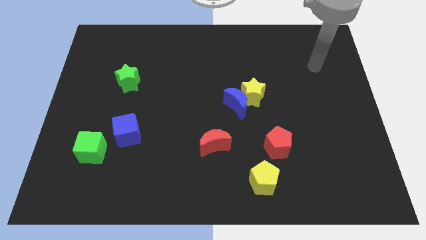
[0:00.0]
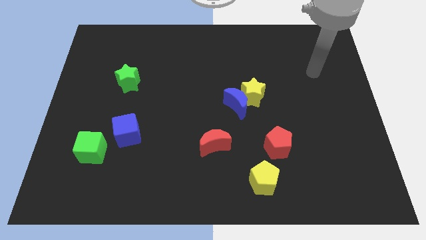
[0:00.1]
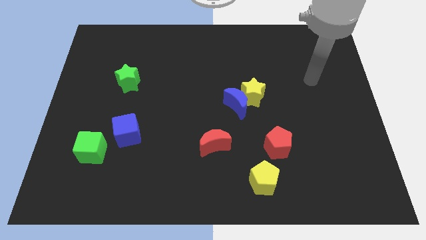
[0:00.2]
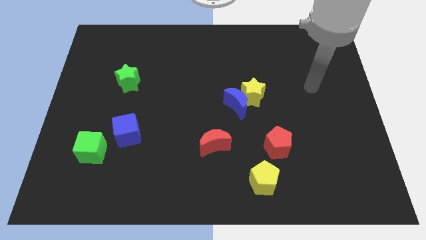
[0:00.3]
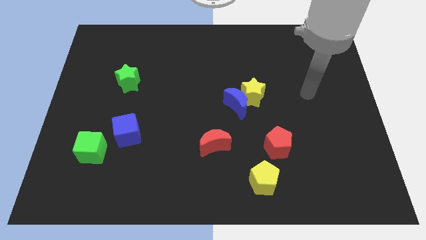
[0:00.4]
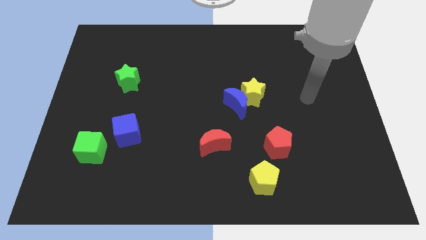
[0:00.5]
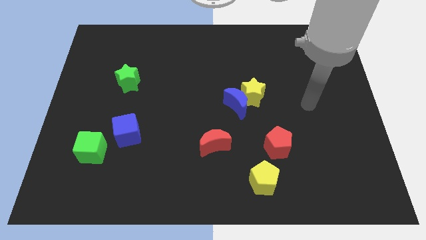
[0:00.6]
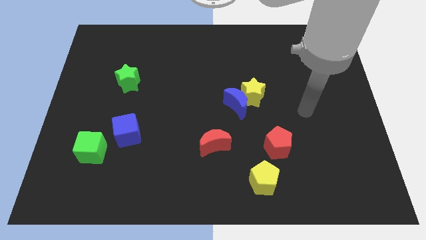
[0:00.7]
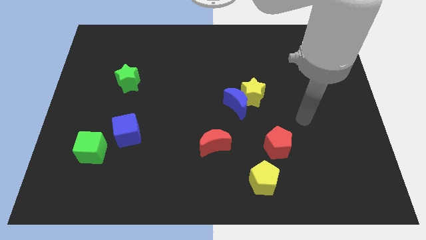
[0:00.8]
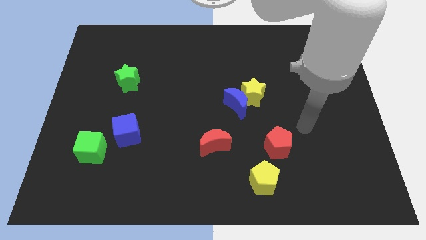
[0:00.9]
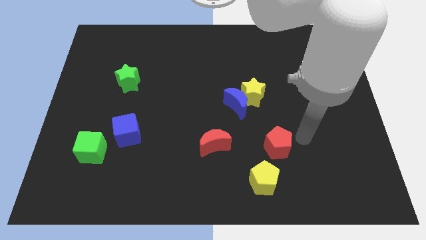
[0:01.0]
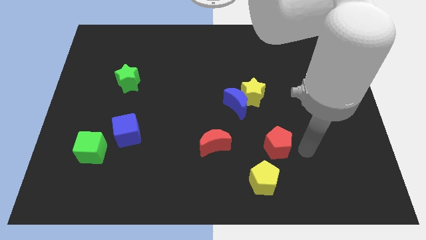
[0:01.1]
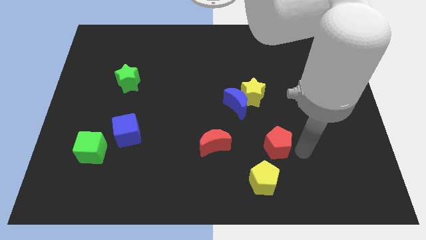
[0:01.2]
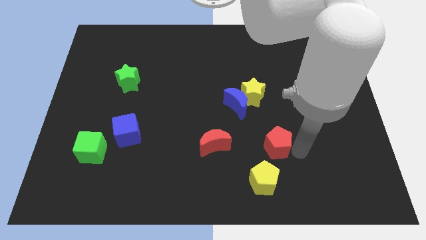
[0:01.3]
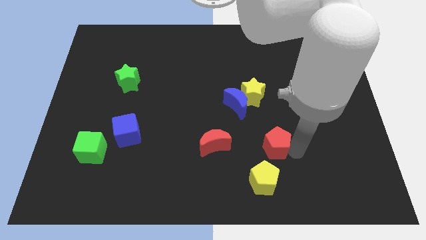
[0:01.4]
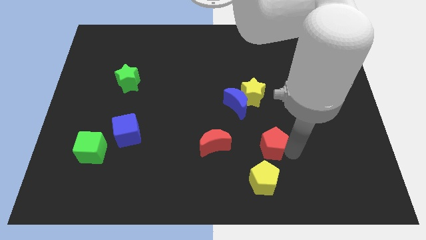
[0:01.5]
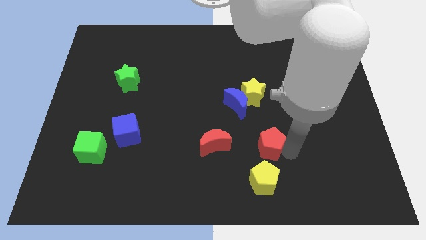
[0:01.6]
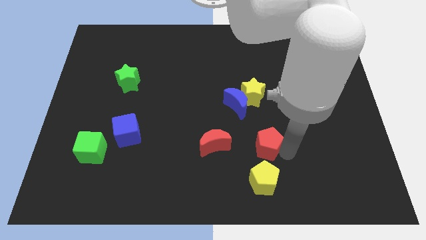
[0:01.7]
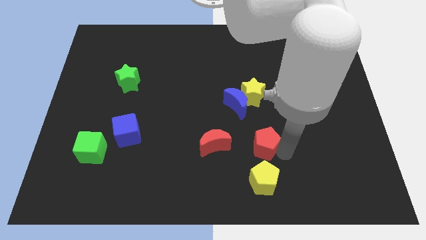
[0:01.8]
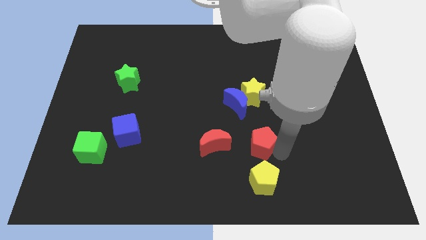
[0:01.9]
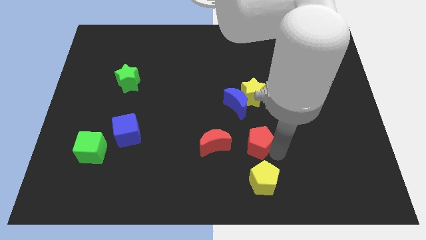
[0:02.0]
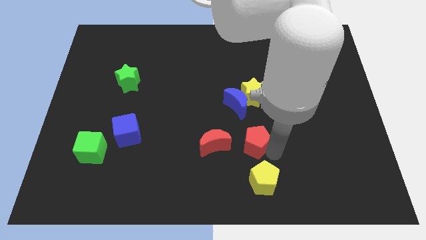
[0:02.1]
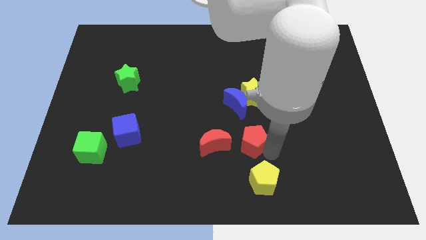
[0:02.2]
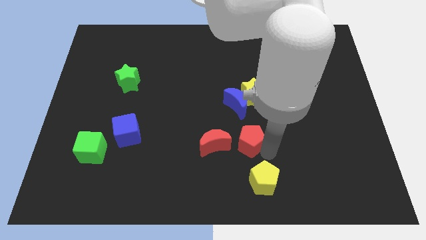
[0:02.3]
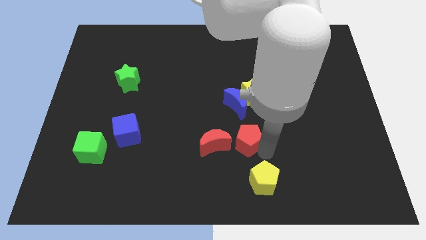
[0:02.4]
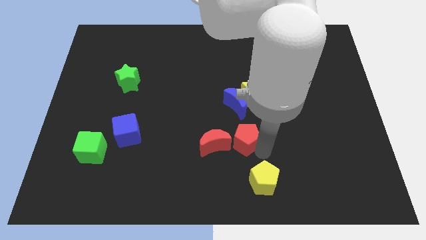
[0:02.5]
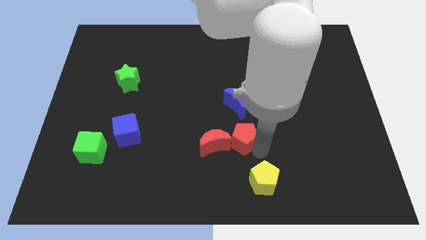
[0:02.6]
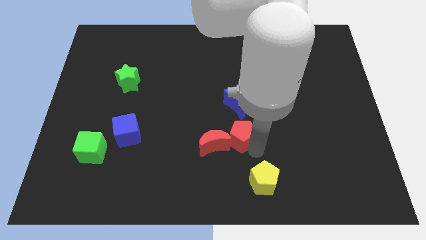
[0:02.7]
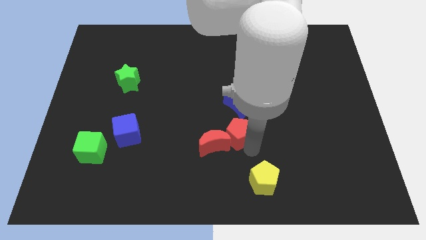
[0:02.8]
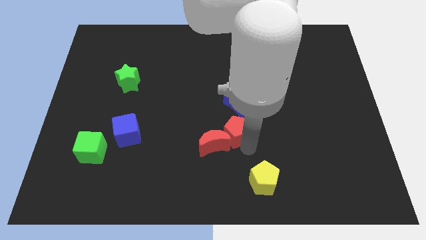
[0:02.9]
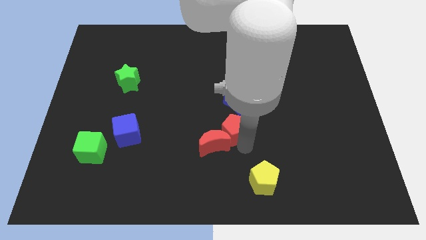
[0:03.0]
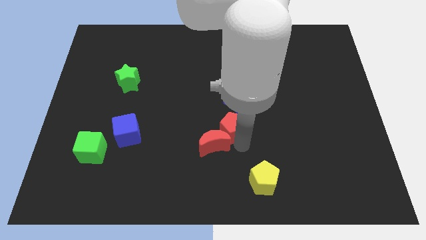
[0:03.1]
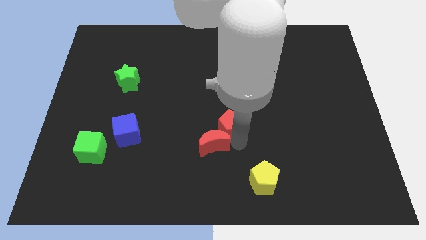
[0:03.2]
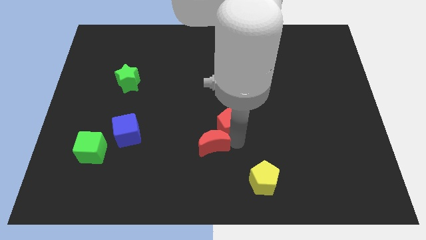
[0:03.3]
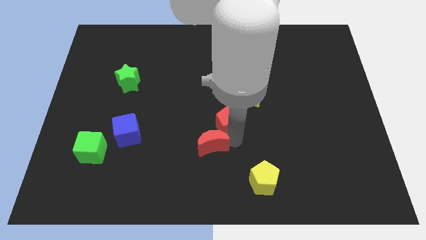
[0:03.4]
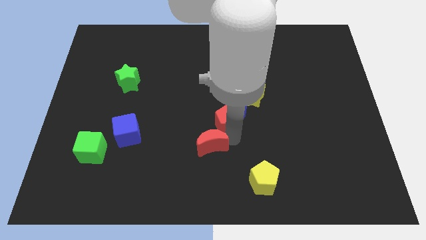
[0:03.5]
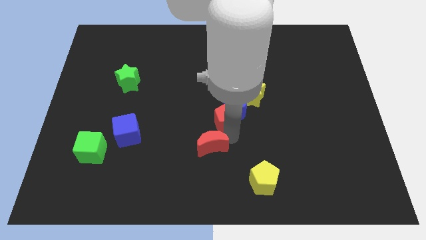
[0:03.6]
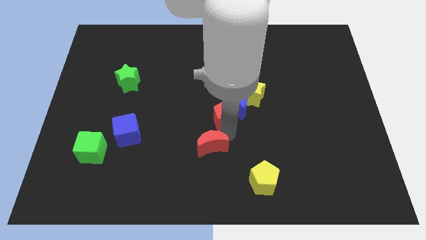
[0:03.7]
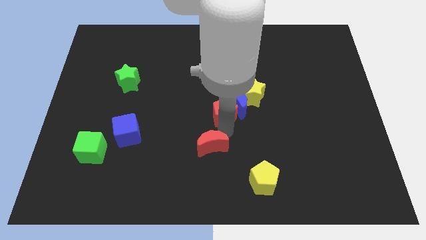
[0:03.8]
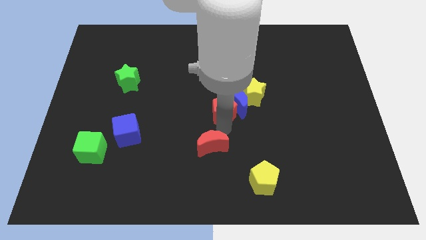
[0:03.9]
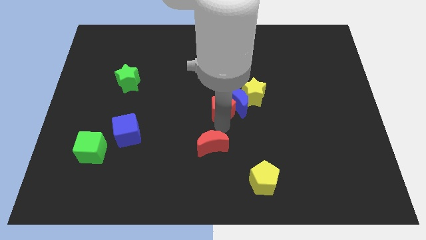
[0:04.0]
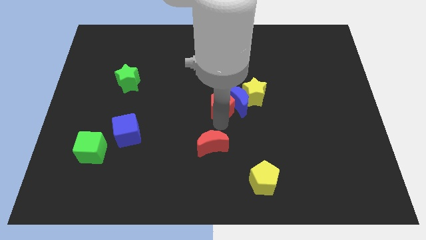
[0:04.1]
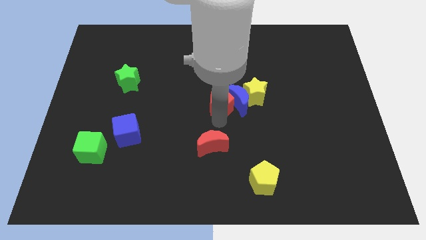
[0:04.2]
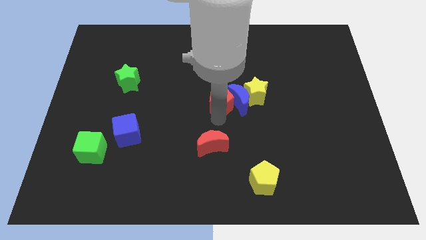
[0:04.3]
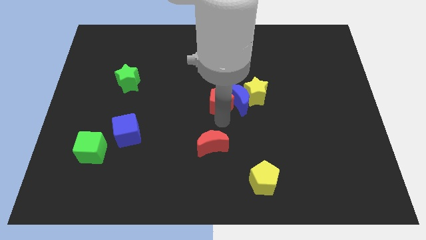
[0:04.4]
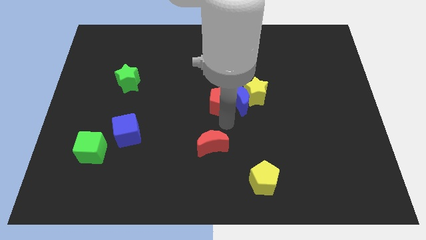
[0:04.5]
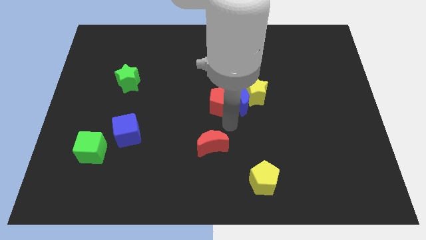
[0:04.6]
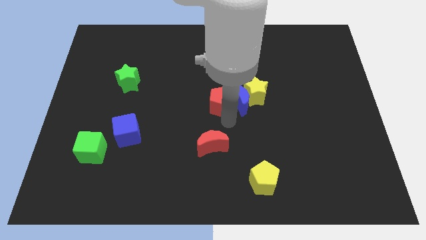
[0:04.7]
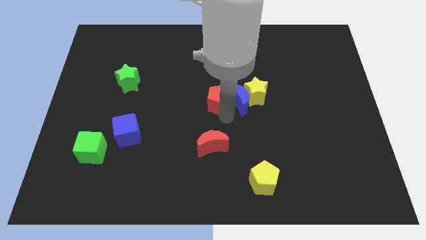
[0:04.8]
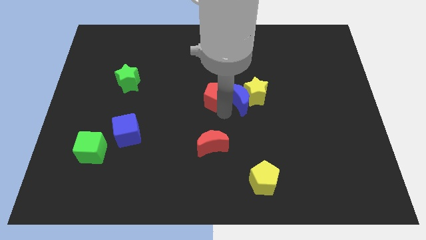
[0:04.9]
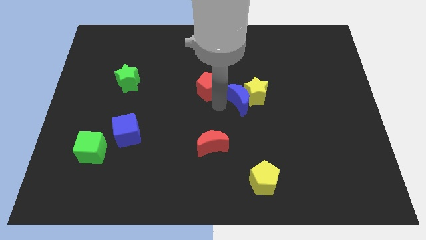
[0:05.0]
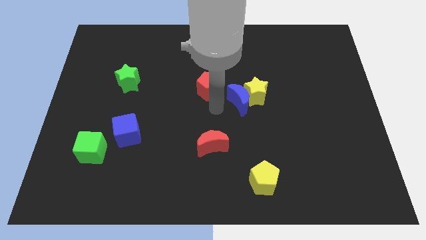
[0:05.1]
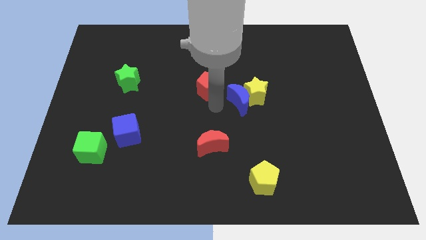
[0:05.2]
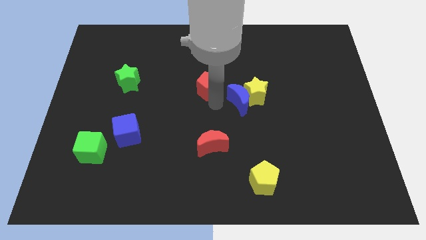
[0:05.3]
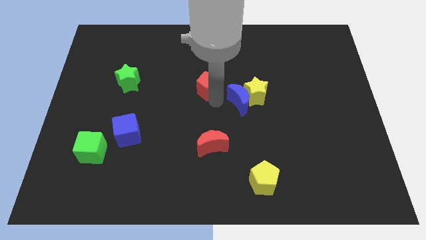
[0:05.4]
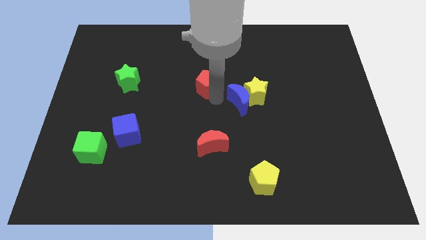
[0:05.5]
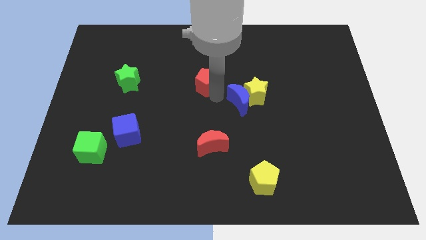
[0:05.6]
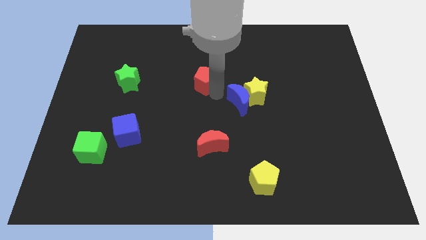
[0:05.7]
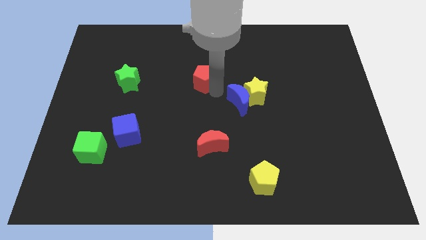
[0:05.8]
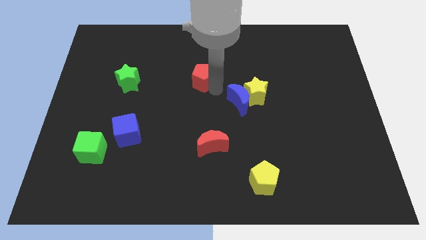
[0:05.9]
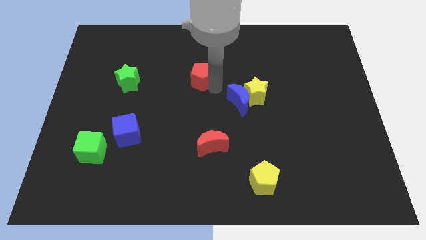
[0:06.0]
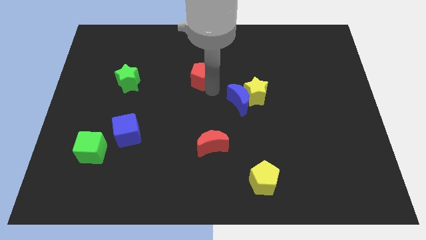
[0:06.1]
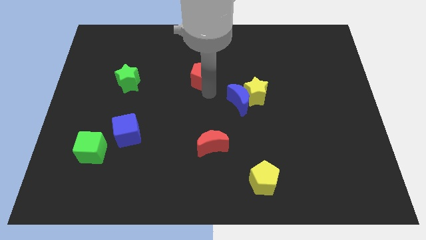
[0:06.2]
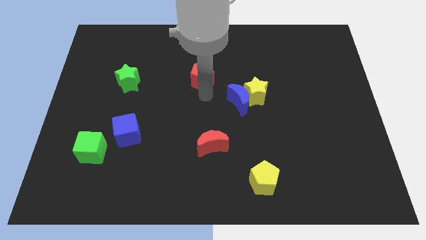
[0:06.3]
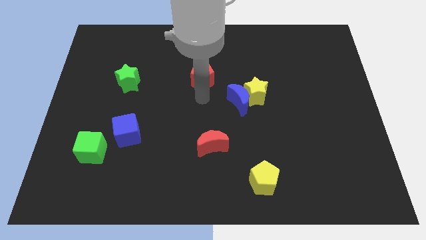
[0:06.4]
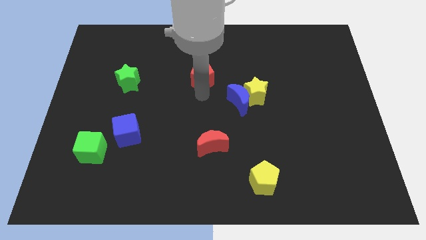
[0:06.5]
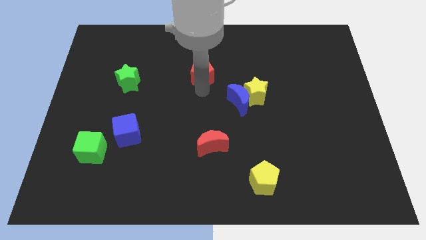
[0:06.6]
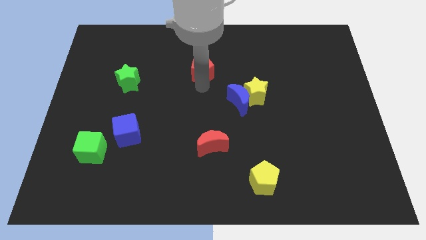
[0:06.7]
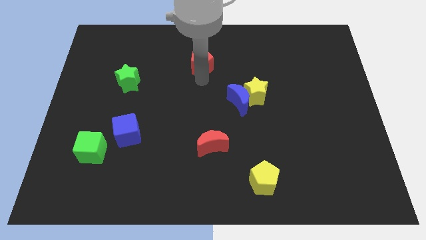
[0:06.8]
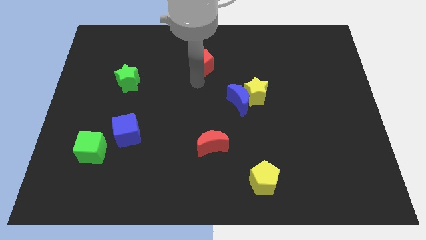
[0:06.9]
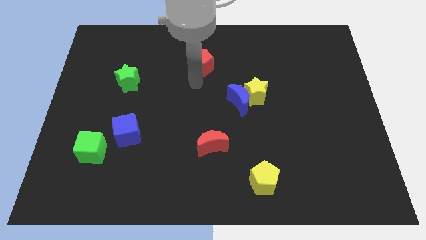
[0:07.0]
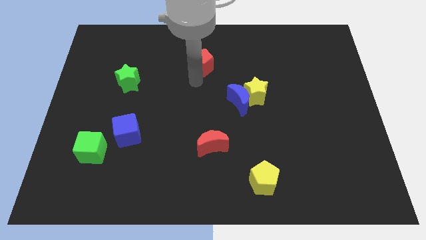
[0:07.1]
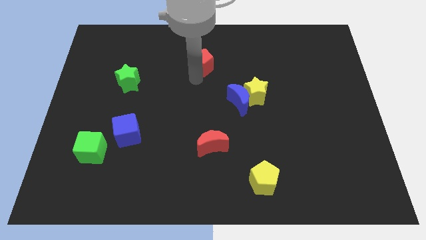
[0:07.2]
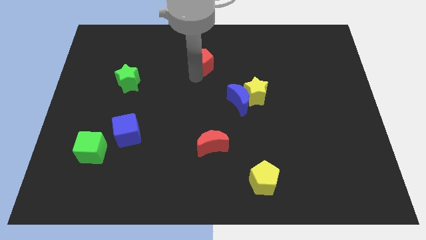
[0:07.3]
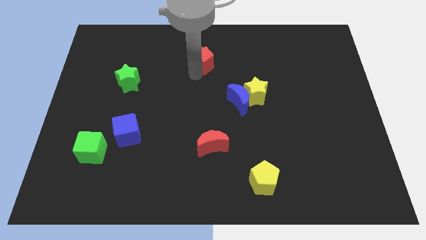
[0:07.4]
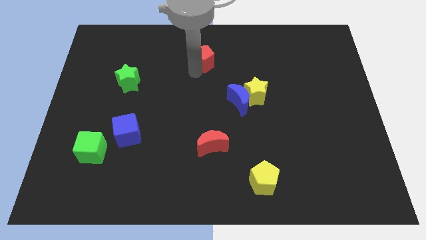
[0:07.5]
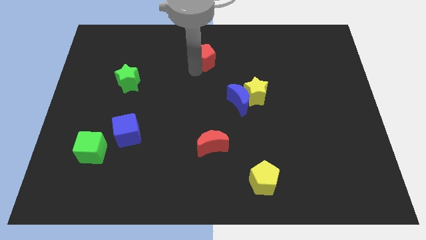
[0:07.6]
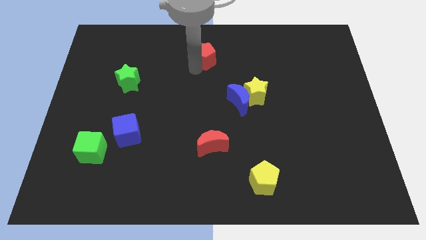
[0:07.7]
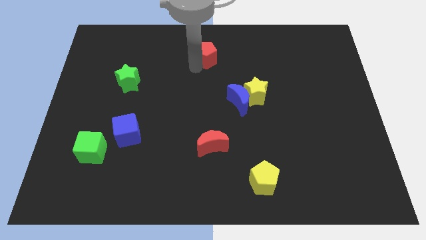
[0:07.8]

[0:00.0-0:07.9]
push the red pentagon to the towards your base
